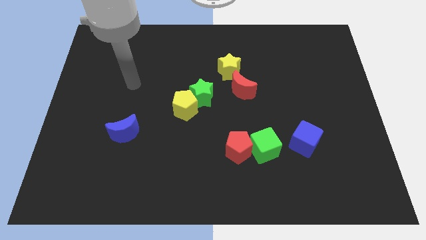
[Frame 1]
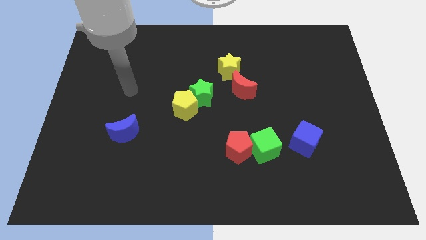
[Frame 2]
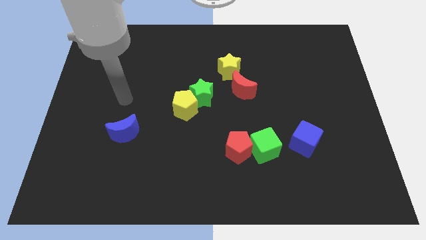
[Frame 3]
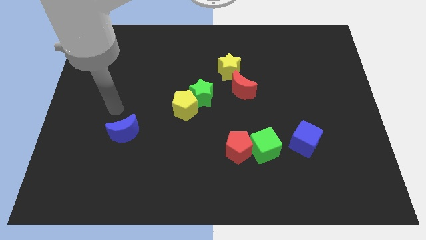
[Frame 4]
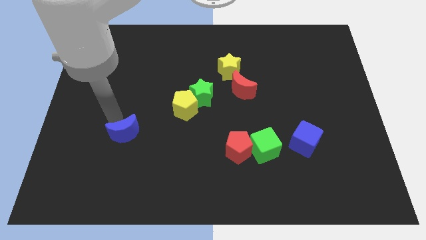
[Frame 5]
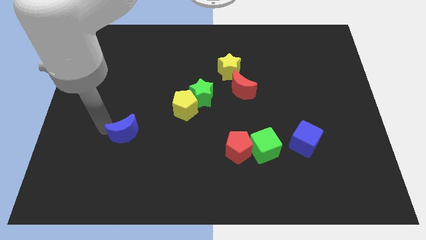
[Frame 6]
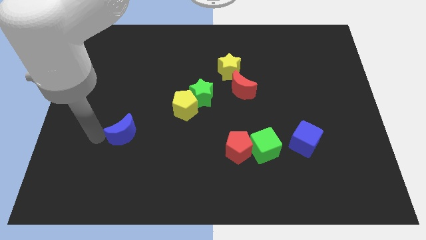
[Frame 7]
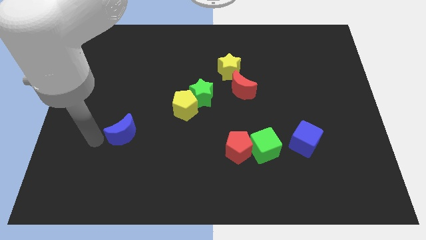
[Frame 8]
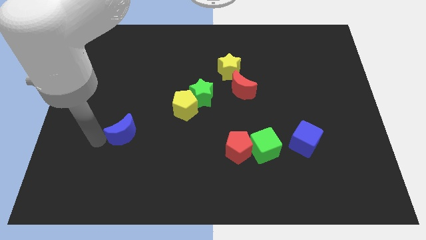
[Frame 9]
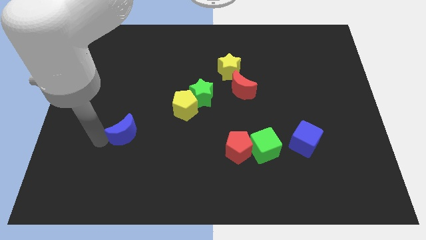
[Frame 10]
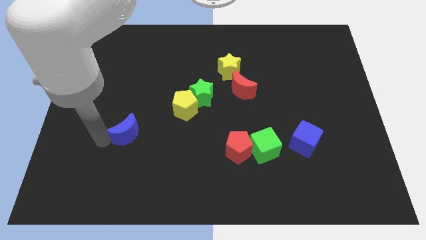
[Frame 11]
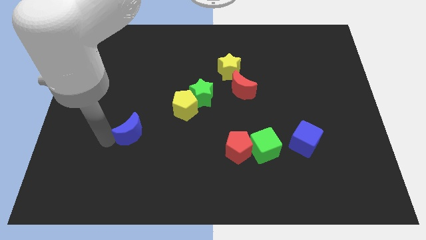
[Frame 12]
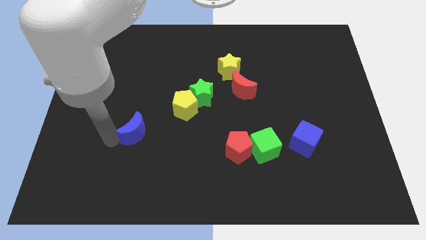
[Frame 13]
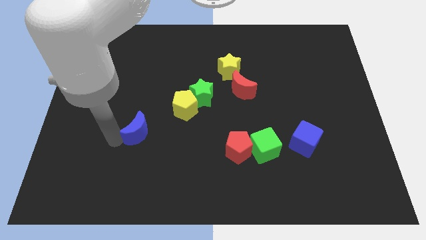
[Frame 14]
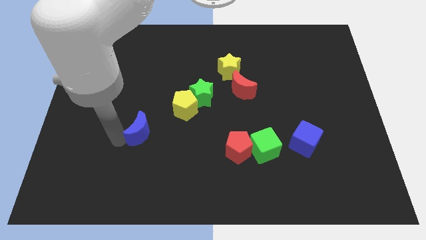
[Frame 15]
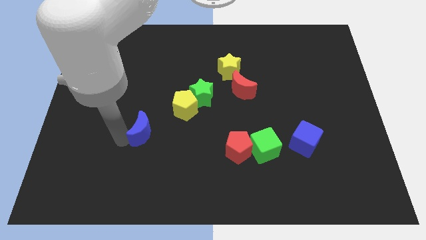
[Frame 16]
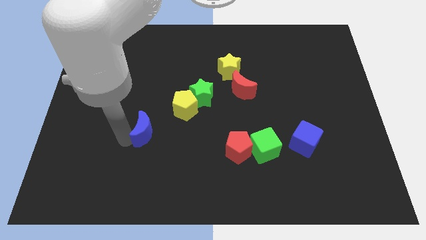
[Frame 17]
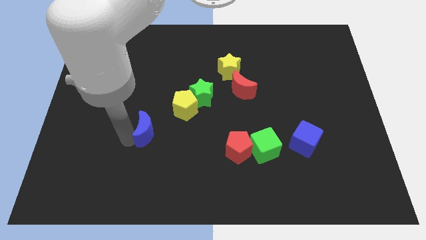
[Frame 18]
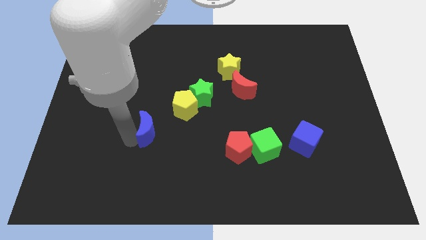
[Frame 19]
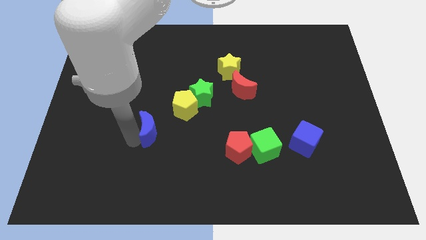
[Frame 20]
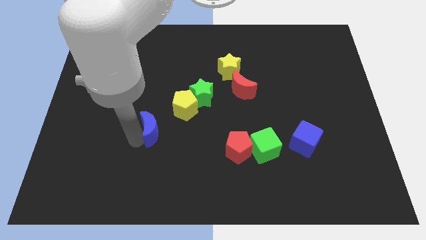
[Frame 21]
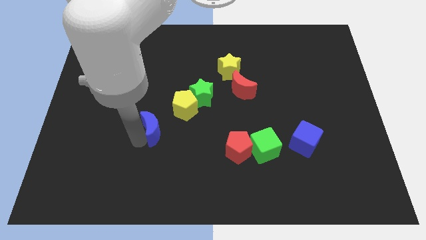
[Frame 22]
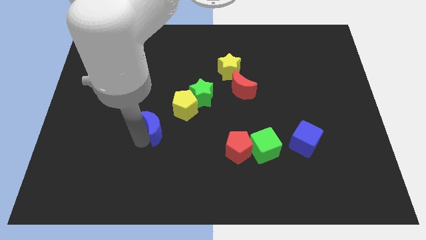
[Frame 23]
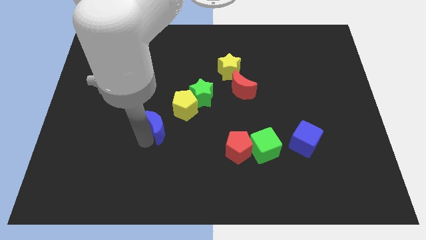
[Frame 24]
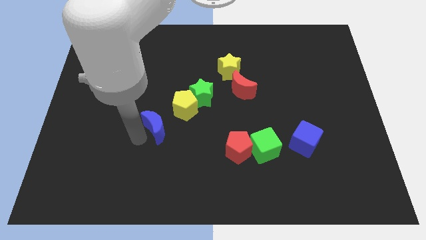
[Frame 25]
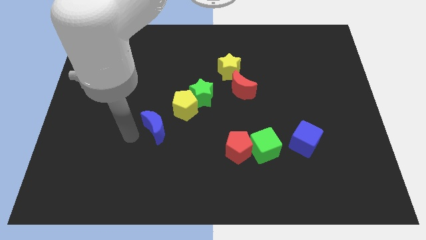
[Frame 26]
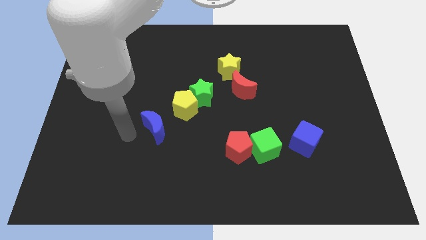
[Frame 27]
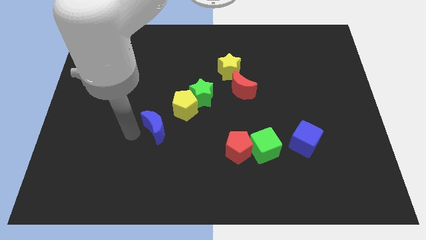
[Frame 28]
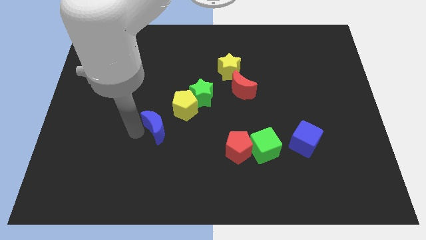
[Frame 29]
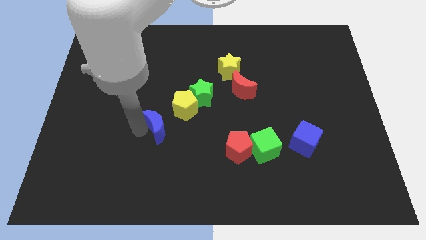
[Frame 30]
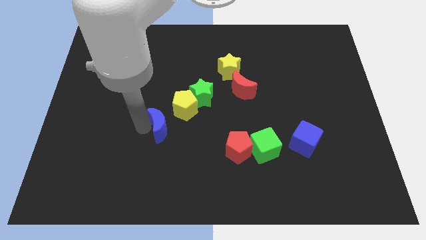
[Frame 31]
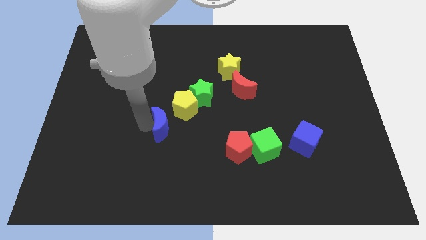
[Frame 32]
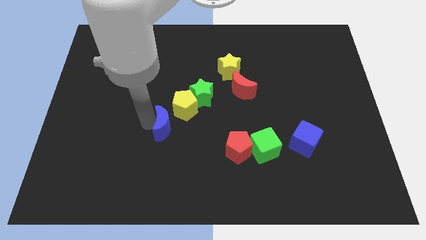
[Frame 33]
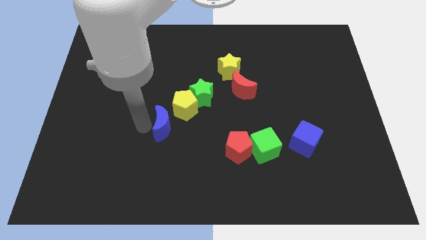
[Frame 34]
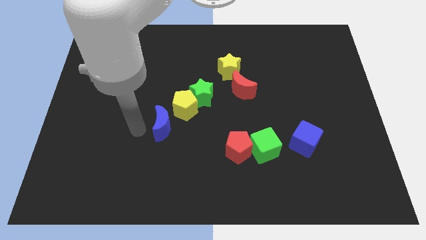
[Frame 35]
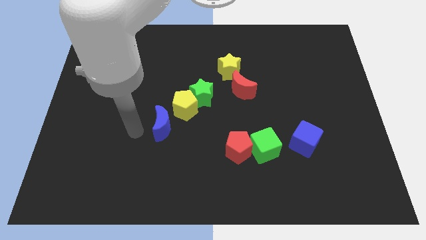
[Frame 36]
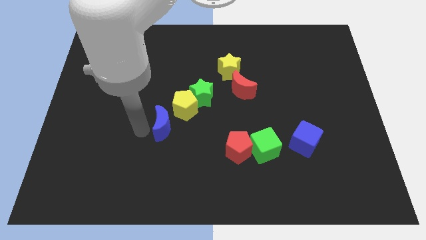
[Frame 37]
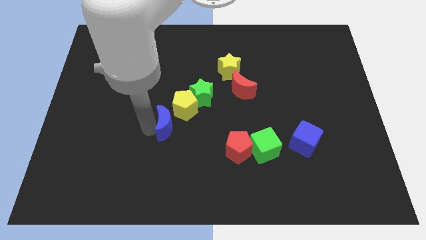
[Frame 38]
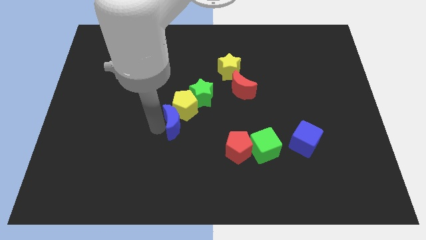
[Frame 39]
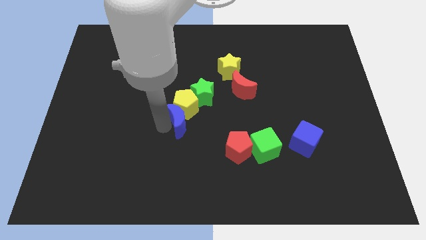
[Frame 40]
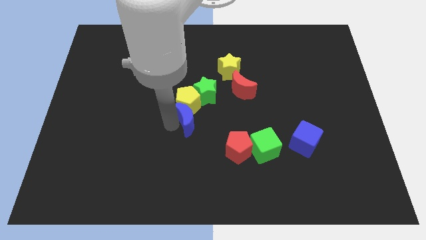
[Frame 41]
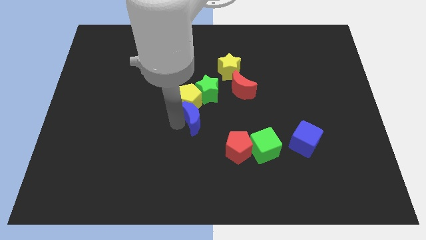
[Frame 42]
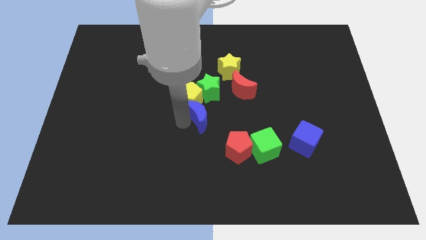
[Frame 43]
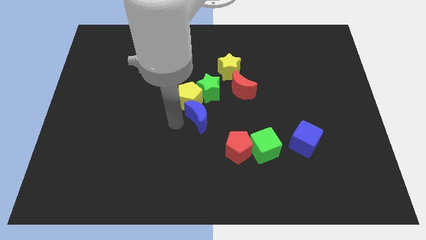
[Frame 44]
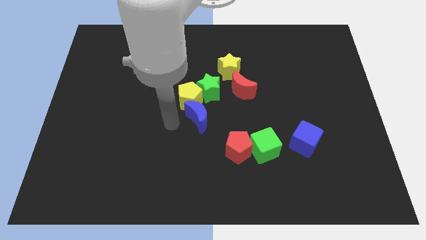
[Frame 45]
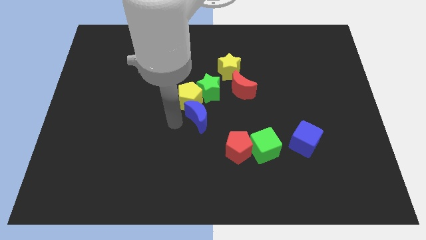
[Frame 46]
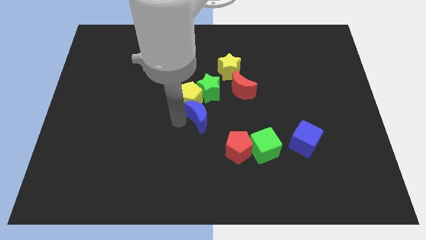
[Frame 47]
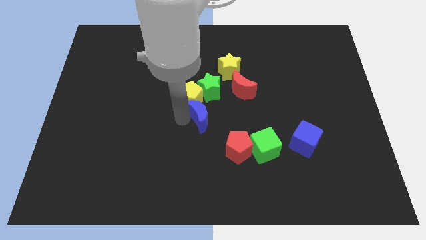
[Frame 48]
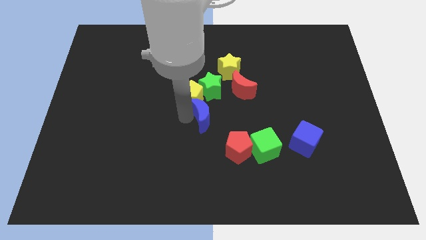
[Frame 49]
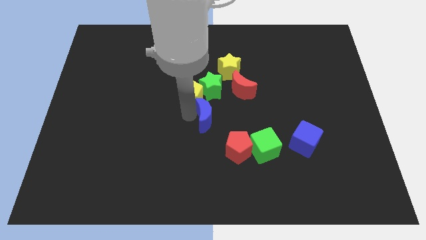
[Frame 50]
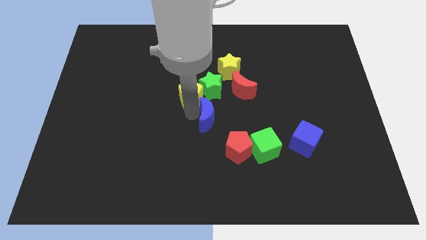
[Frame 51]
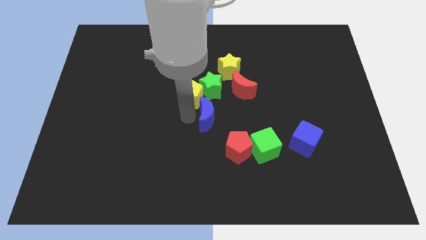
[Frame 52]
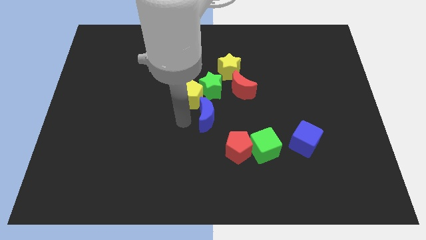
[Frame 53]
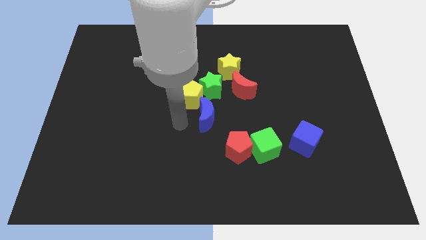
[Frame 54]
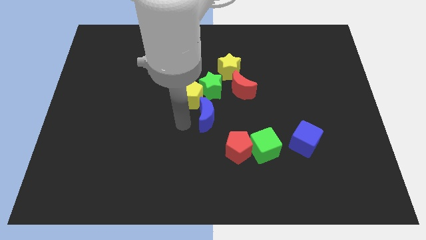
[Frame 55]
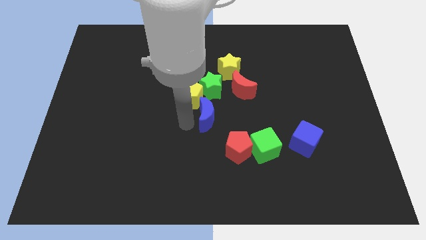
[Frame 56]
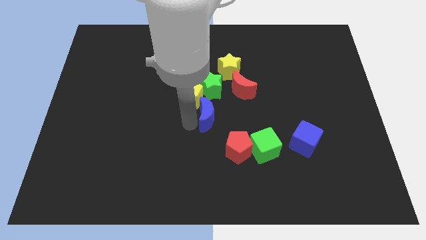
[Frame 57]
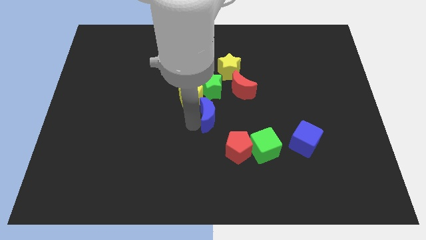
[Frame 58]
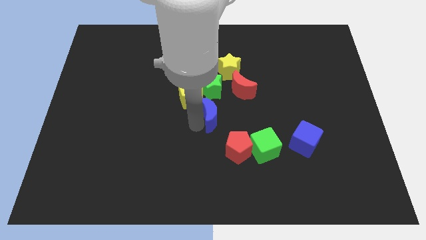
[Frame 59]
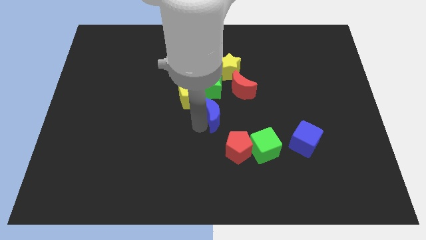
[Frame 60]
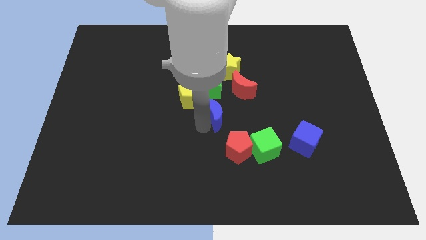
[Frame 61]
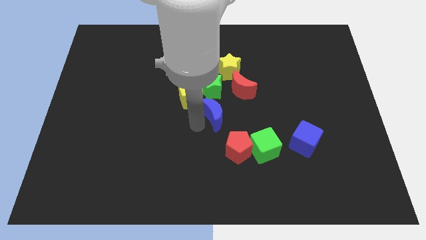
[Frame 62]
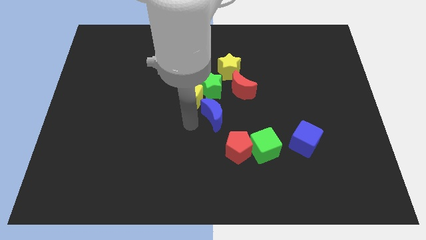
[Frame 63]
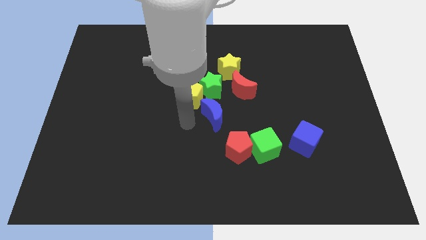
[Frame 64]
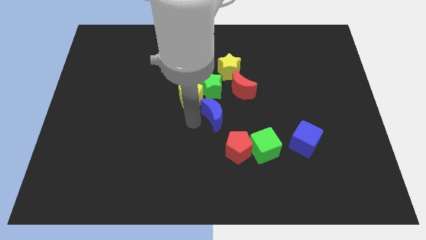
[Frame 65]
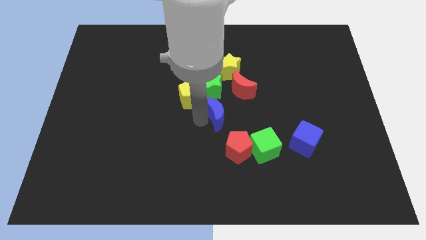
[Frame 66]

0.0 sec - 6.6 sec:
put the blue moon above the red pentagon
